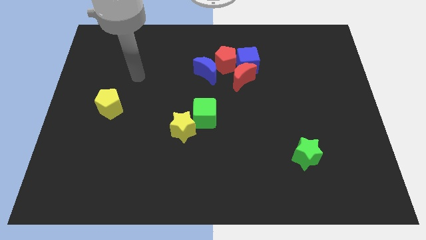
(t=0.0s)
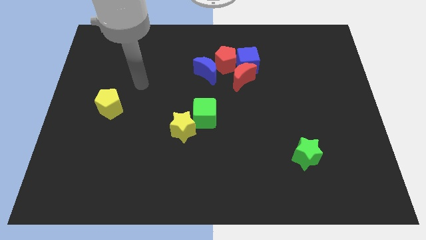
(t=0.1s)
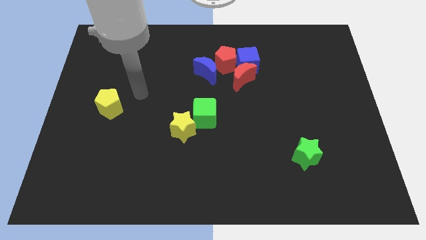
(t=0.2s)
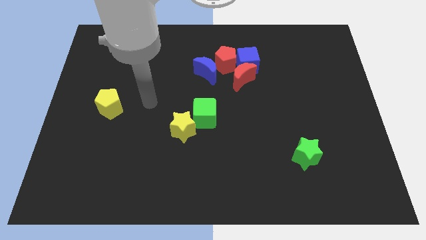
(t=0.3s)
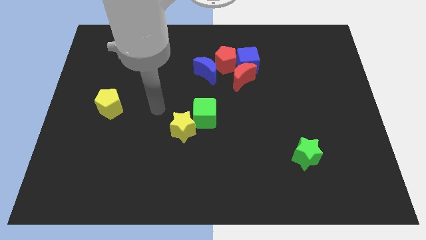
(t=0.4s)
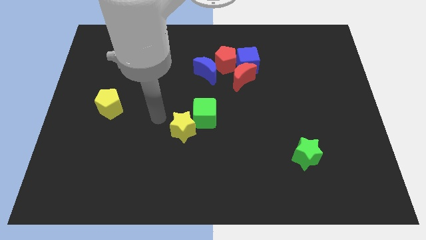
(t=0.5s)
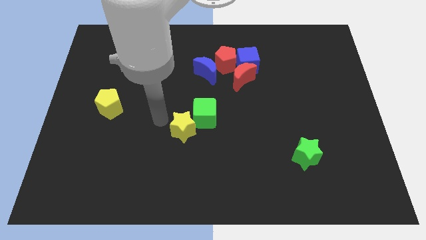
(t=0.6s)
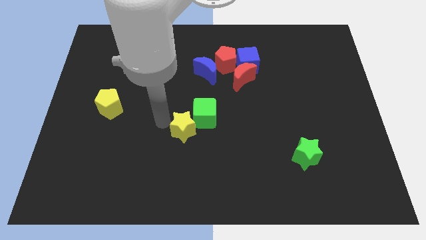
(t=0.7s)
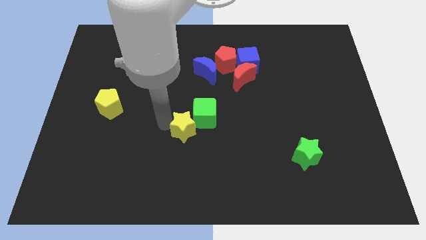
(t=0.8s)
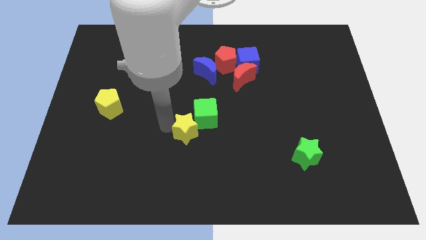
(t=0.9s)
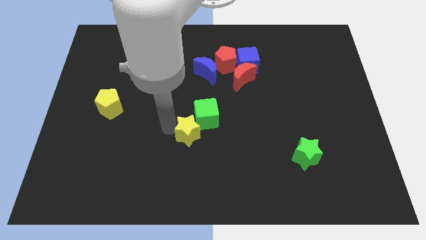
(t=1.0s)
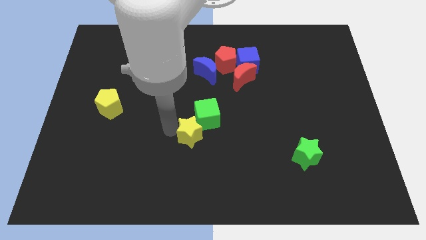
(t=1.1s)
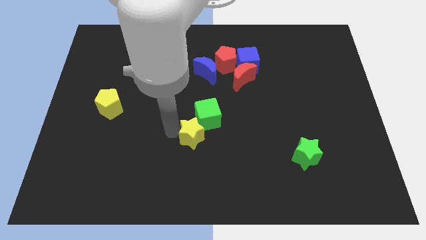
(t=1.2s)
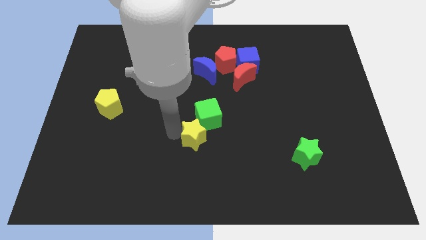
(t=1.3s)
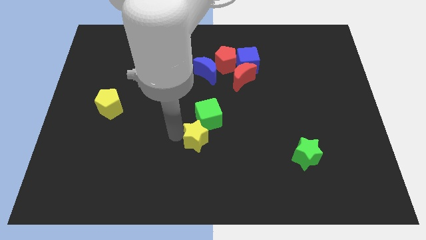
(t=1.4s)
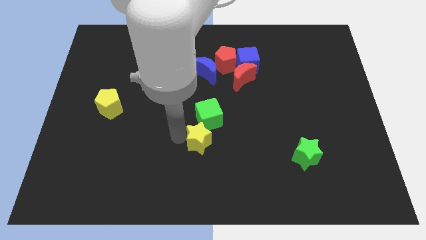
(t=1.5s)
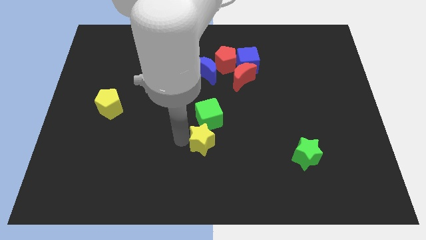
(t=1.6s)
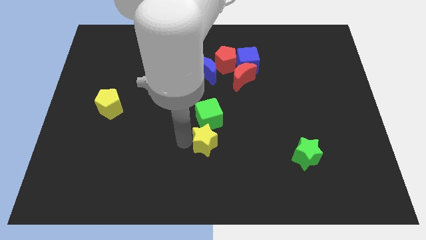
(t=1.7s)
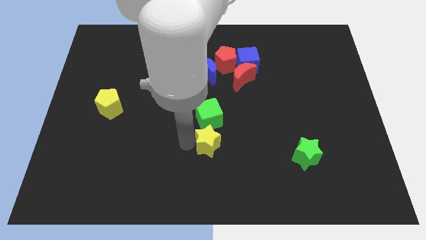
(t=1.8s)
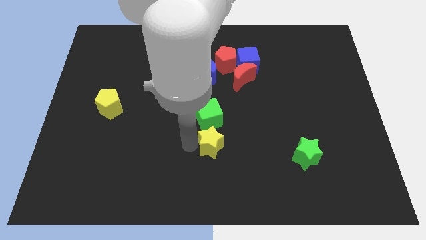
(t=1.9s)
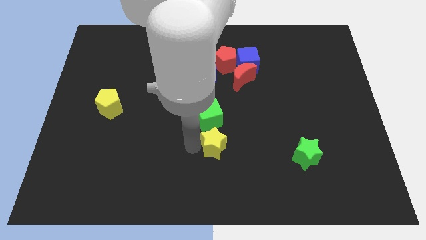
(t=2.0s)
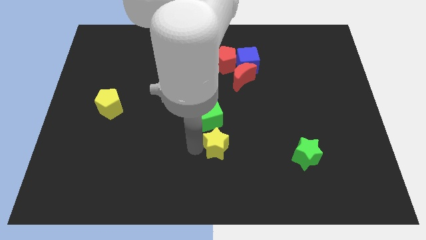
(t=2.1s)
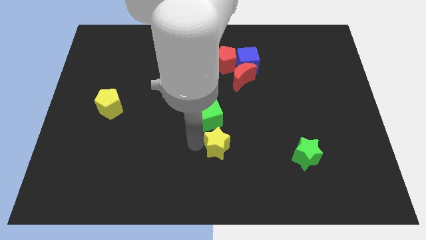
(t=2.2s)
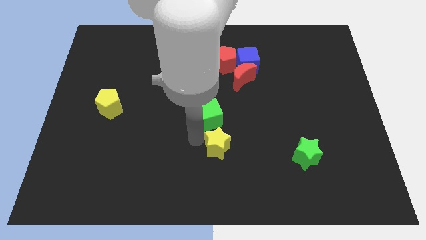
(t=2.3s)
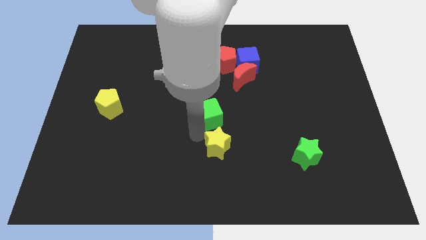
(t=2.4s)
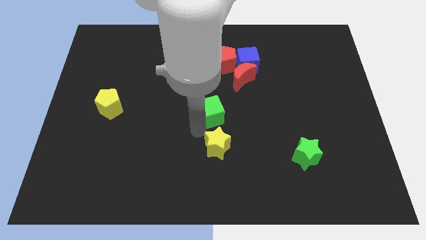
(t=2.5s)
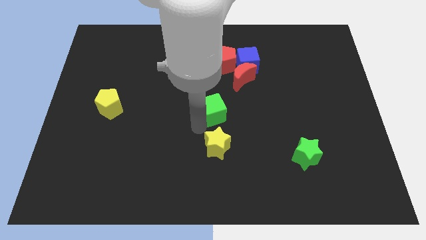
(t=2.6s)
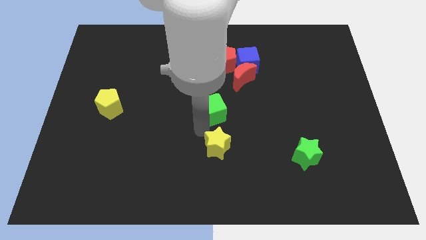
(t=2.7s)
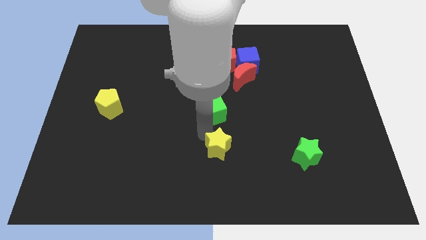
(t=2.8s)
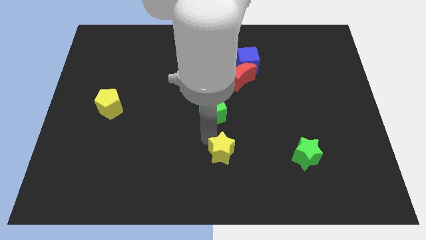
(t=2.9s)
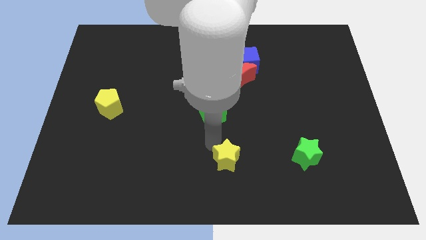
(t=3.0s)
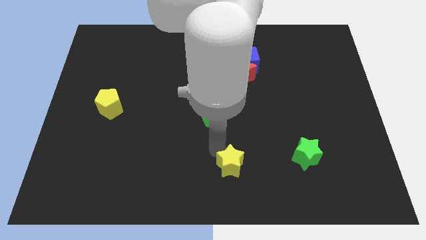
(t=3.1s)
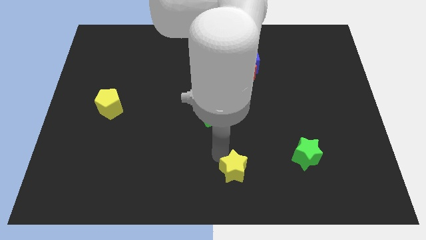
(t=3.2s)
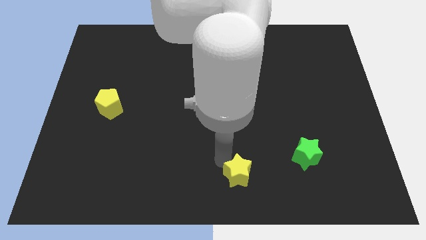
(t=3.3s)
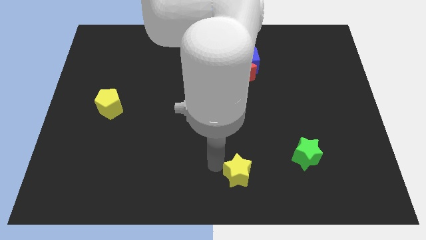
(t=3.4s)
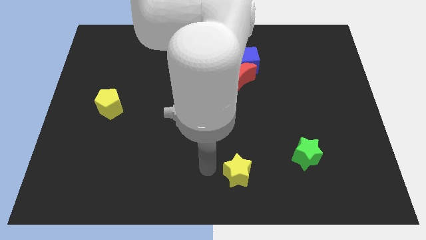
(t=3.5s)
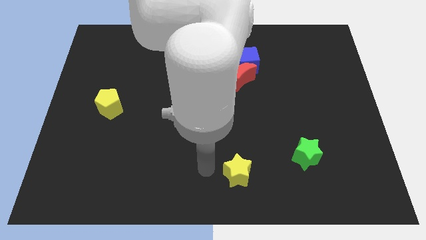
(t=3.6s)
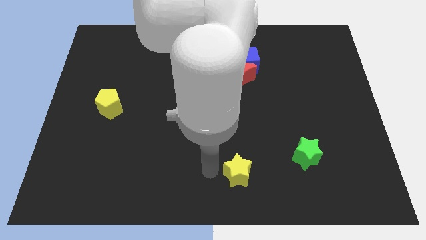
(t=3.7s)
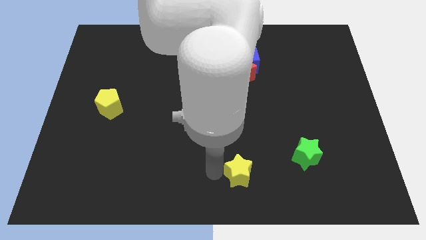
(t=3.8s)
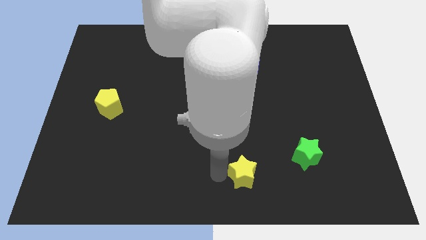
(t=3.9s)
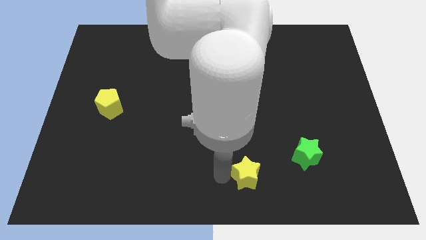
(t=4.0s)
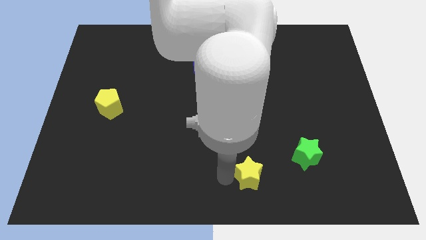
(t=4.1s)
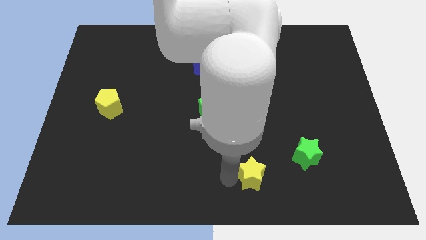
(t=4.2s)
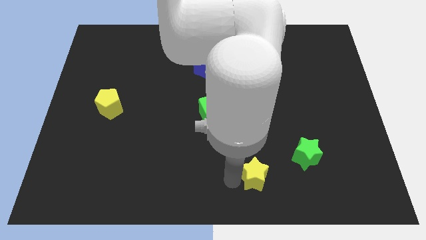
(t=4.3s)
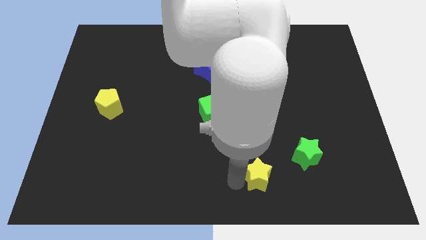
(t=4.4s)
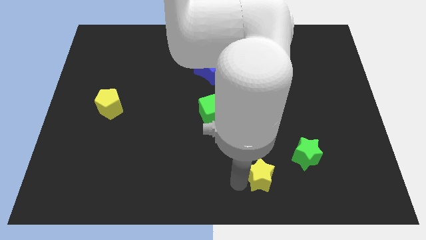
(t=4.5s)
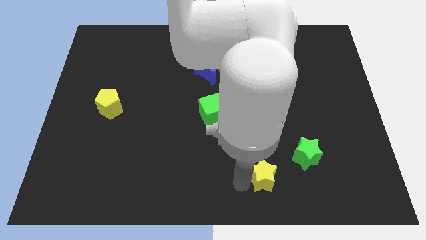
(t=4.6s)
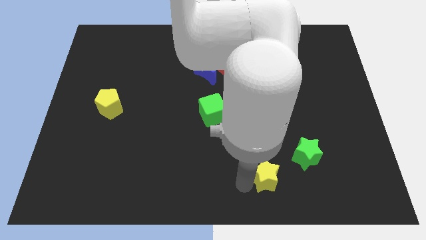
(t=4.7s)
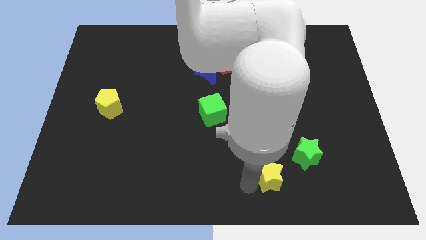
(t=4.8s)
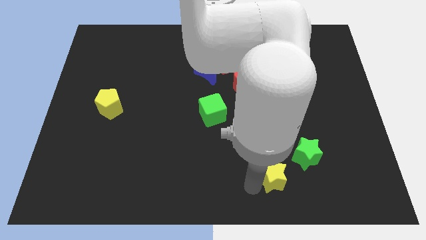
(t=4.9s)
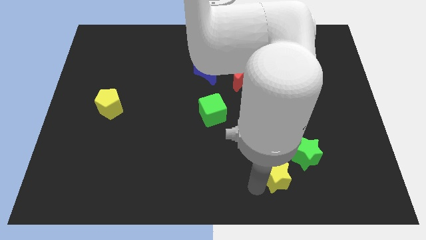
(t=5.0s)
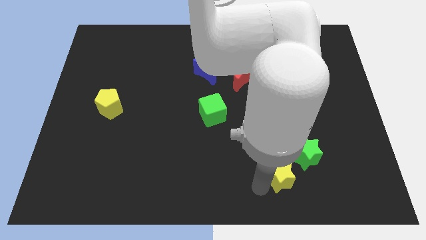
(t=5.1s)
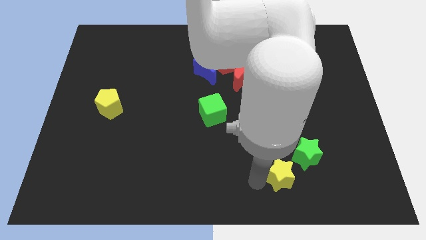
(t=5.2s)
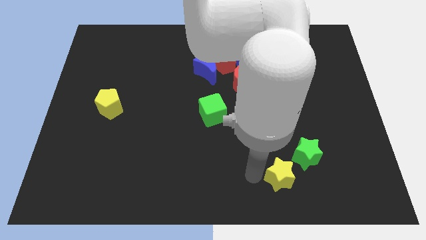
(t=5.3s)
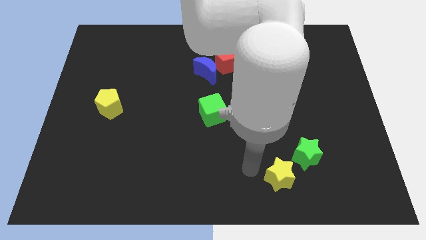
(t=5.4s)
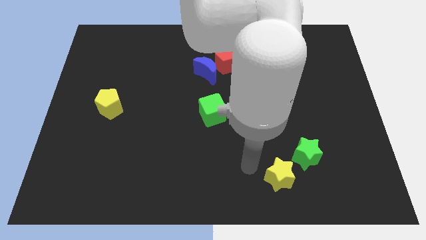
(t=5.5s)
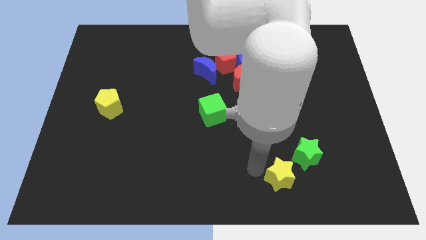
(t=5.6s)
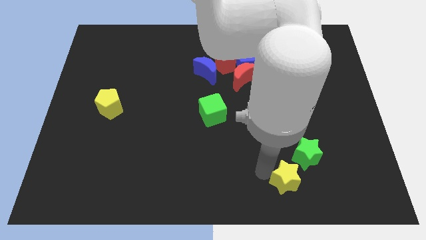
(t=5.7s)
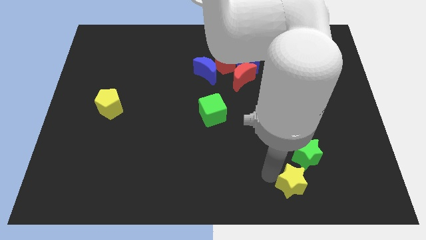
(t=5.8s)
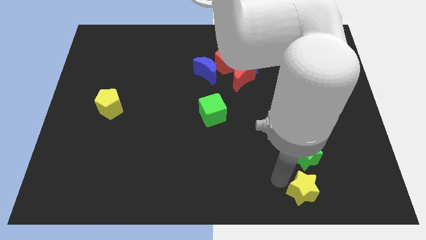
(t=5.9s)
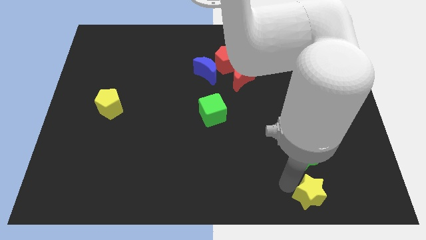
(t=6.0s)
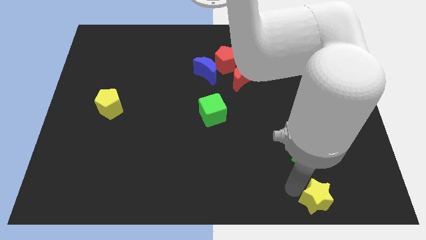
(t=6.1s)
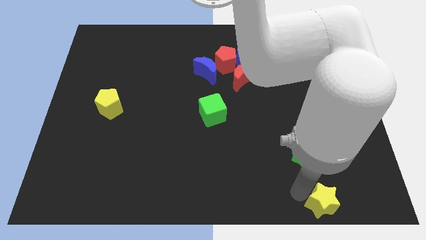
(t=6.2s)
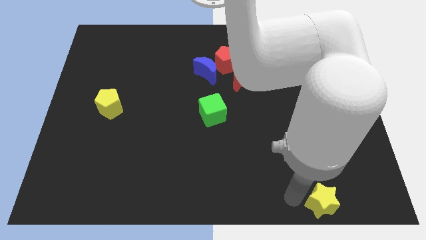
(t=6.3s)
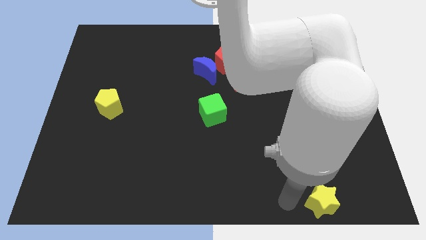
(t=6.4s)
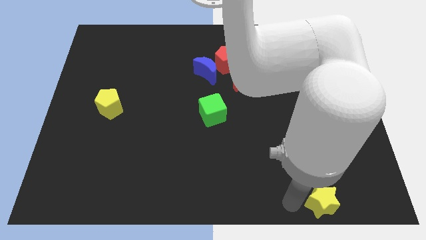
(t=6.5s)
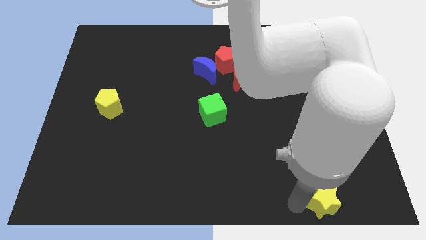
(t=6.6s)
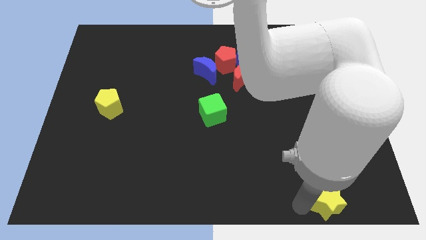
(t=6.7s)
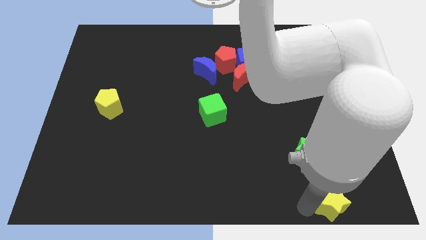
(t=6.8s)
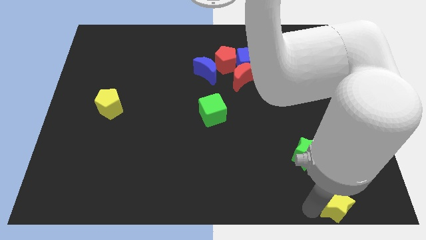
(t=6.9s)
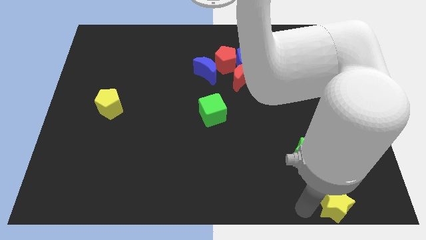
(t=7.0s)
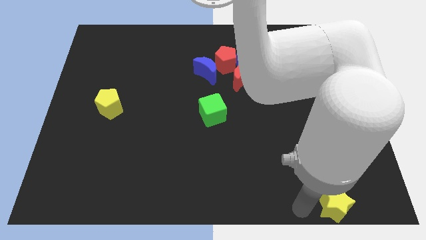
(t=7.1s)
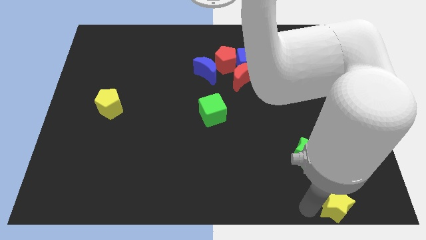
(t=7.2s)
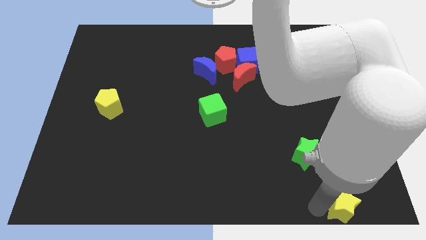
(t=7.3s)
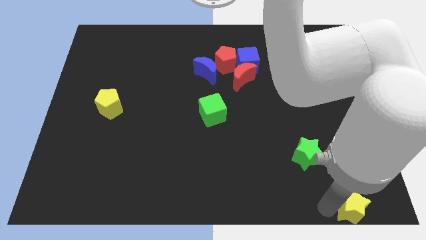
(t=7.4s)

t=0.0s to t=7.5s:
move the yellow star to the bottom right
